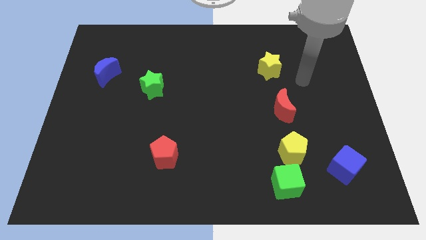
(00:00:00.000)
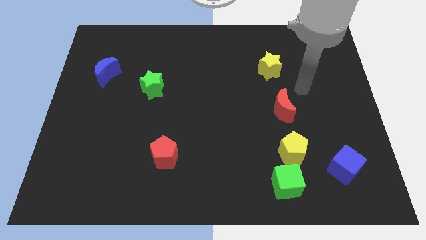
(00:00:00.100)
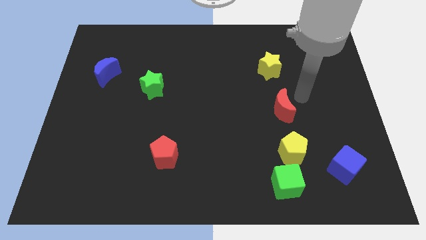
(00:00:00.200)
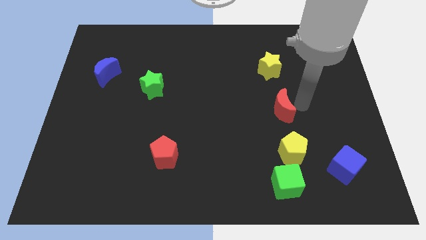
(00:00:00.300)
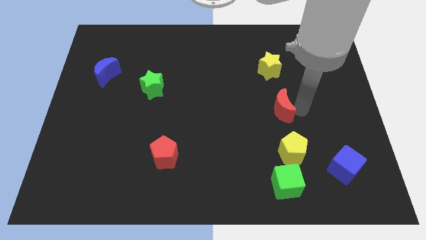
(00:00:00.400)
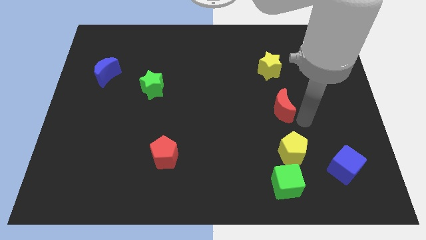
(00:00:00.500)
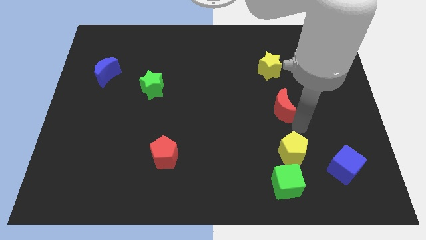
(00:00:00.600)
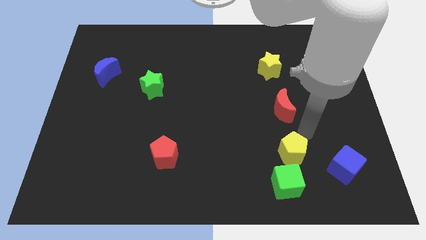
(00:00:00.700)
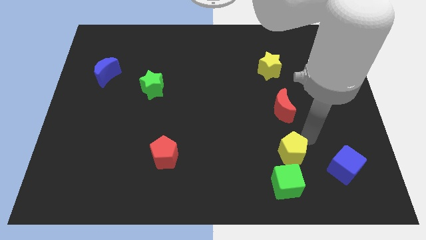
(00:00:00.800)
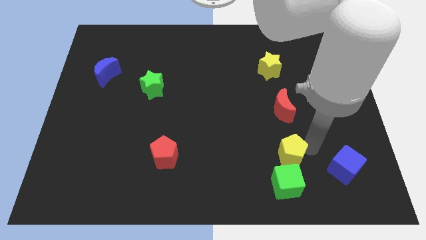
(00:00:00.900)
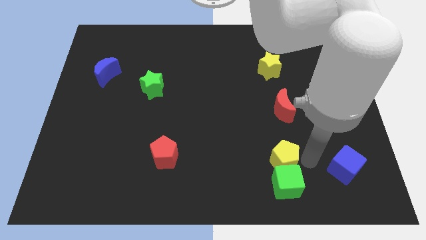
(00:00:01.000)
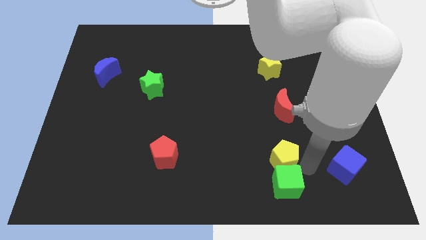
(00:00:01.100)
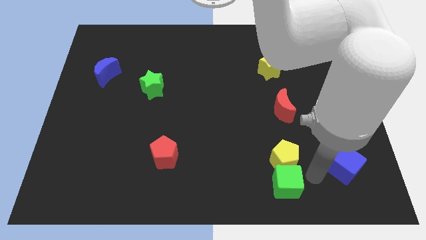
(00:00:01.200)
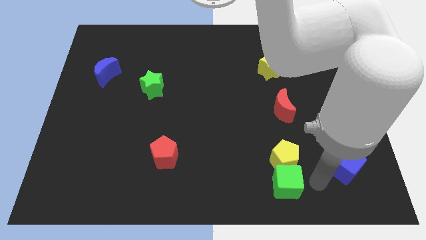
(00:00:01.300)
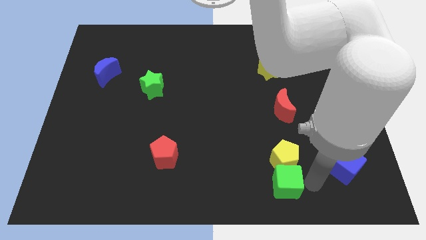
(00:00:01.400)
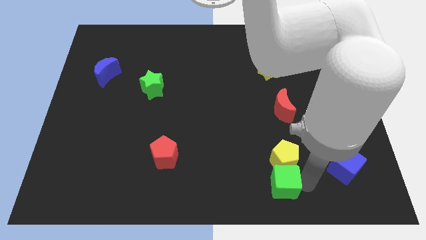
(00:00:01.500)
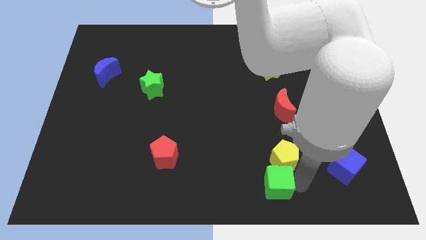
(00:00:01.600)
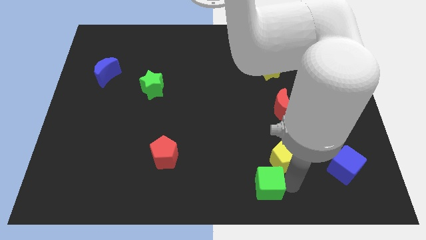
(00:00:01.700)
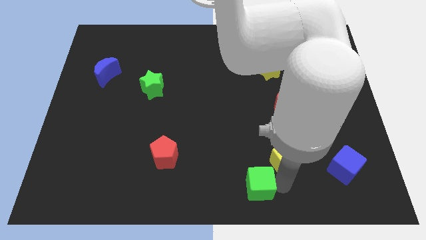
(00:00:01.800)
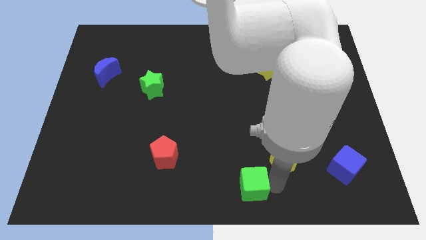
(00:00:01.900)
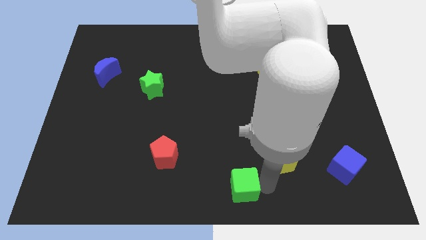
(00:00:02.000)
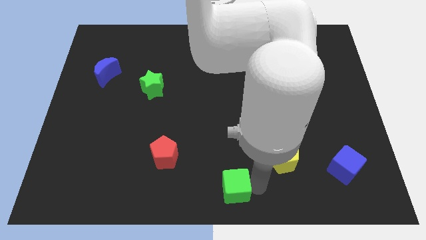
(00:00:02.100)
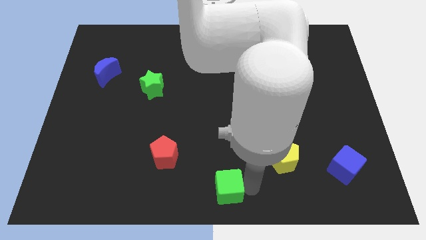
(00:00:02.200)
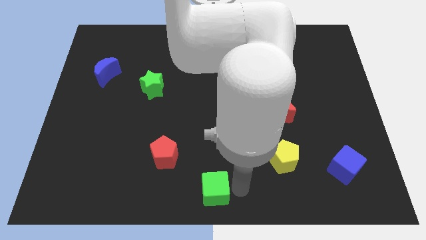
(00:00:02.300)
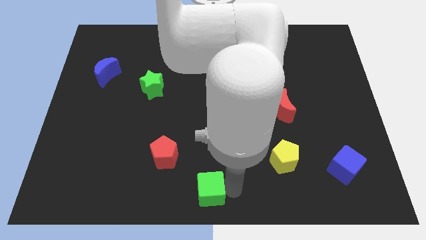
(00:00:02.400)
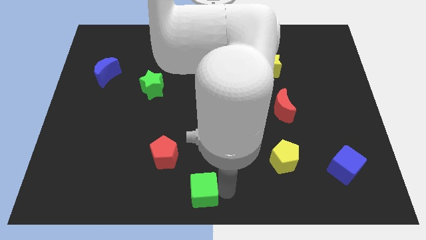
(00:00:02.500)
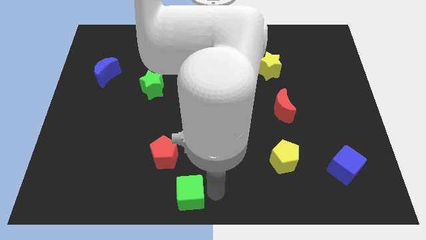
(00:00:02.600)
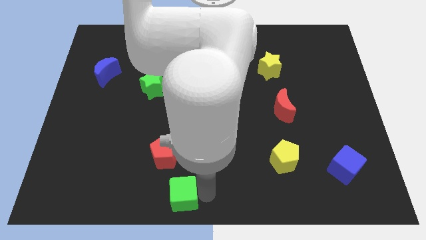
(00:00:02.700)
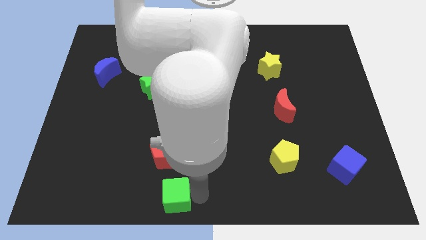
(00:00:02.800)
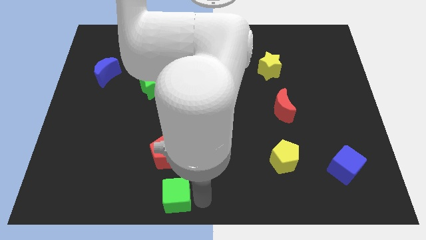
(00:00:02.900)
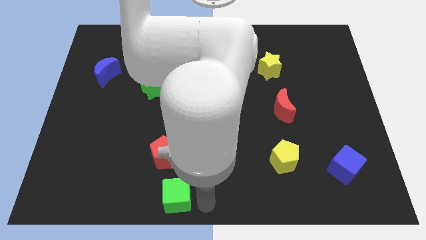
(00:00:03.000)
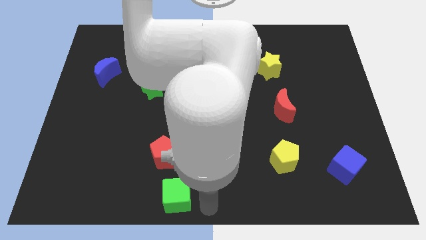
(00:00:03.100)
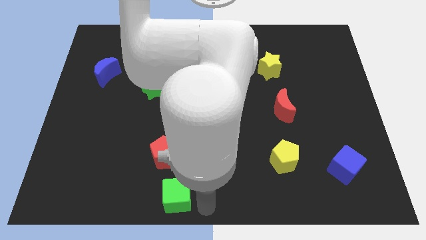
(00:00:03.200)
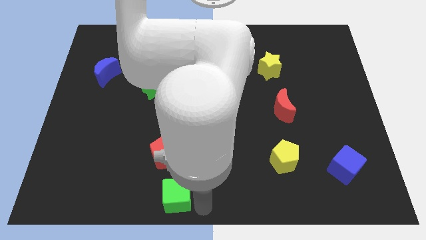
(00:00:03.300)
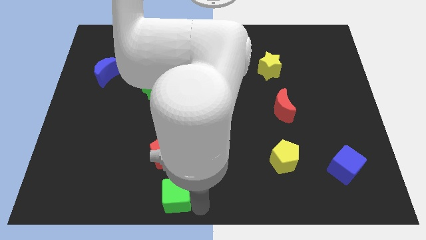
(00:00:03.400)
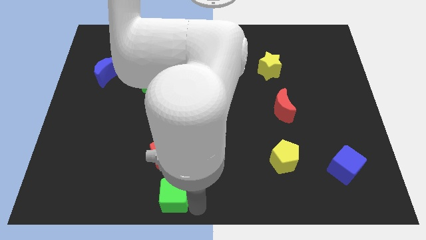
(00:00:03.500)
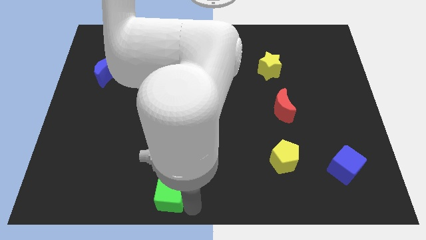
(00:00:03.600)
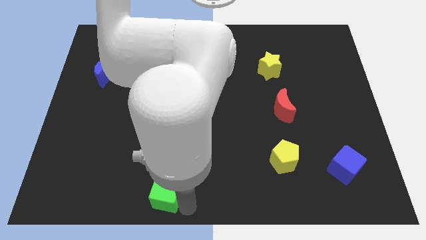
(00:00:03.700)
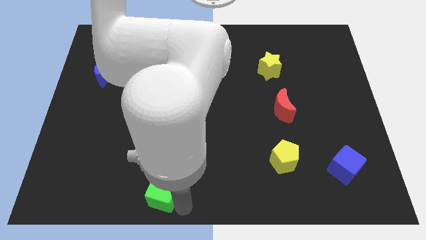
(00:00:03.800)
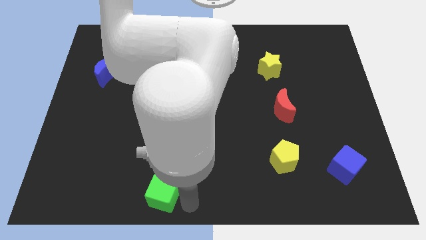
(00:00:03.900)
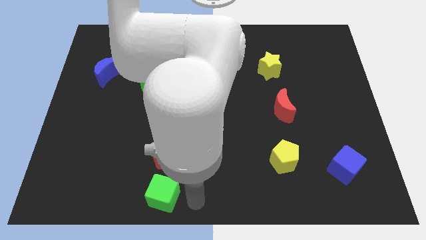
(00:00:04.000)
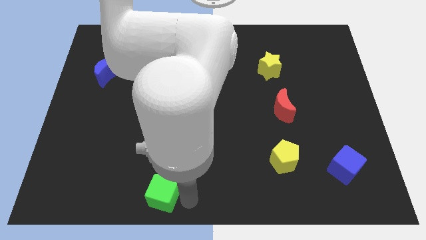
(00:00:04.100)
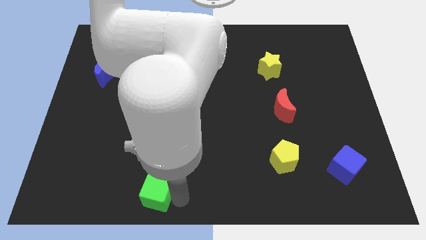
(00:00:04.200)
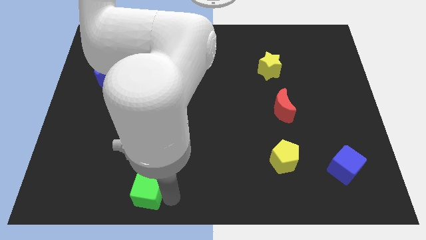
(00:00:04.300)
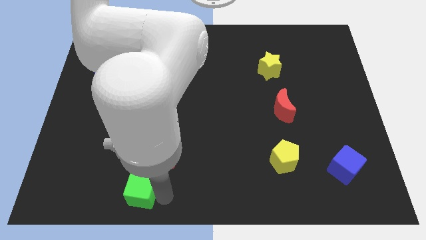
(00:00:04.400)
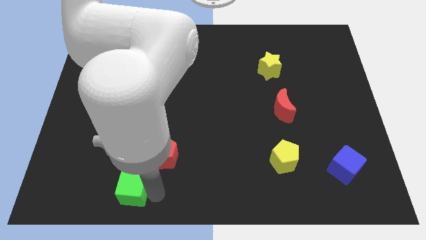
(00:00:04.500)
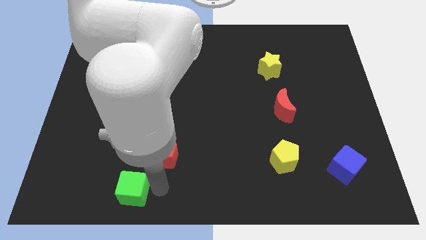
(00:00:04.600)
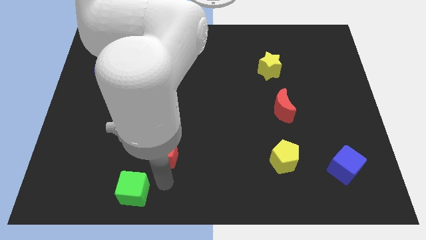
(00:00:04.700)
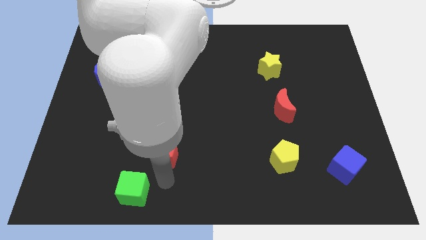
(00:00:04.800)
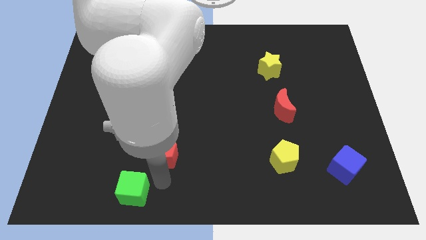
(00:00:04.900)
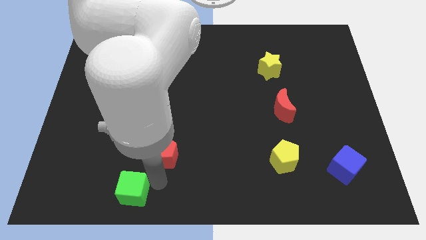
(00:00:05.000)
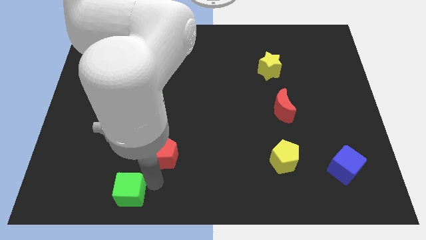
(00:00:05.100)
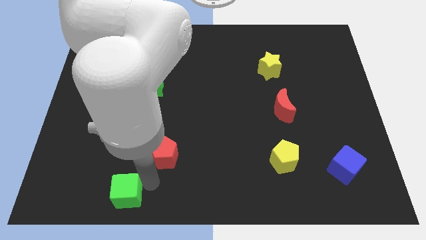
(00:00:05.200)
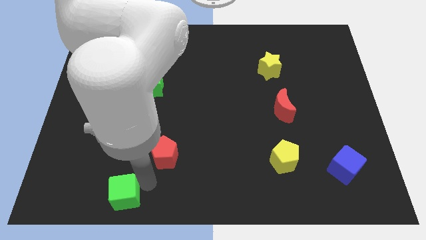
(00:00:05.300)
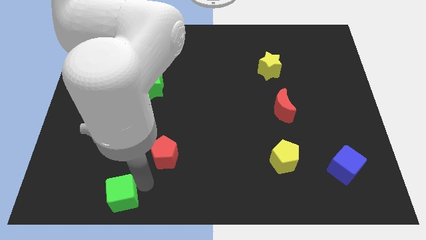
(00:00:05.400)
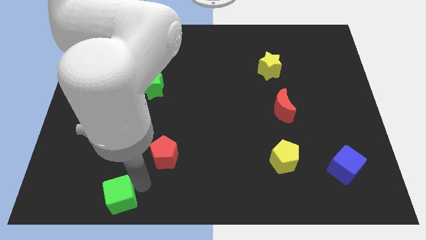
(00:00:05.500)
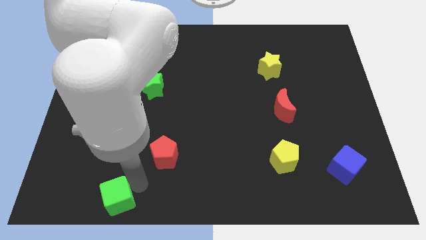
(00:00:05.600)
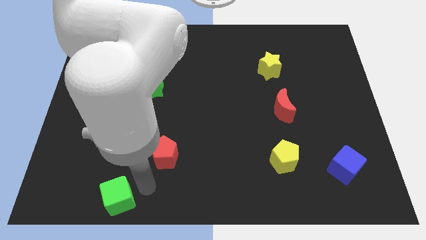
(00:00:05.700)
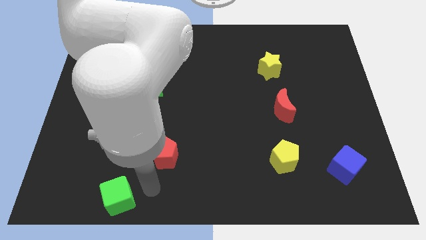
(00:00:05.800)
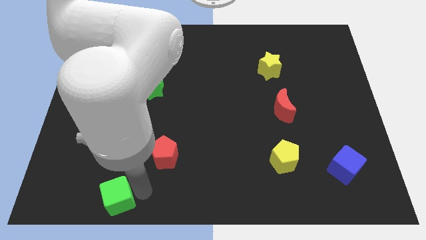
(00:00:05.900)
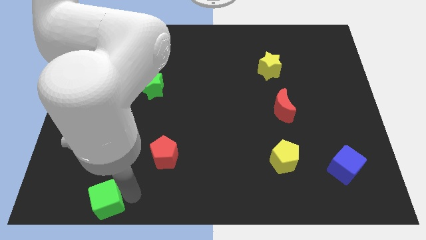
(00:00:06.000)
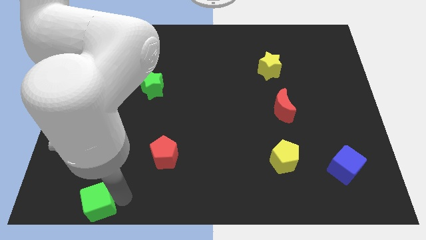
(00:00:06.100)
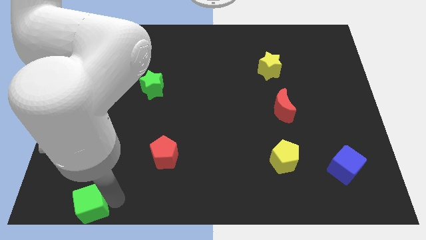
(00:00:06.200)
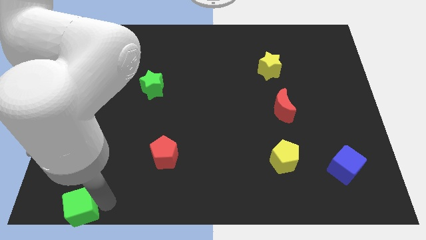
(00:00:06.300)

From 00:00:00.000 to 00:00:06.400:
put the green cube to the lower left corner
